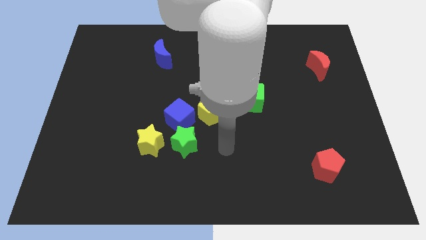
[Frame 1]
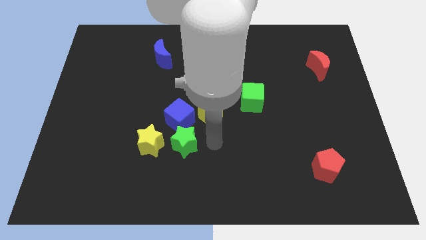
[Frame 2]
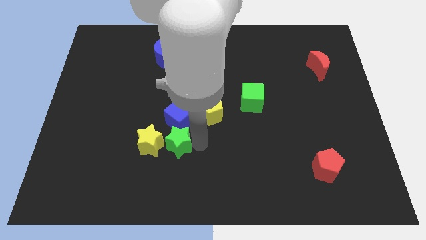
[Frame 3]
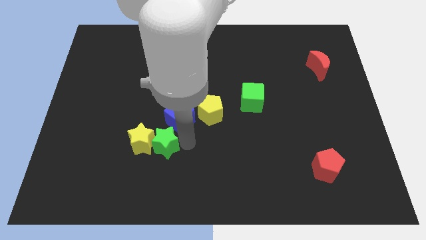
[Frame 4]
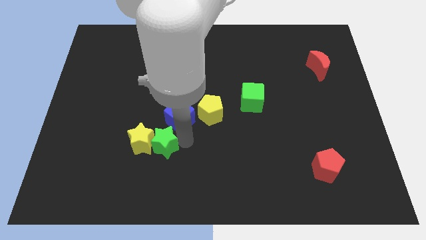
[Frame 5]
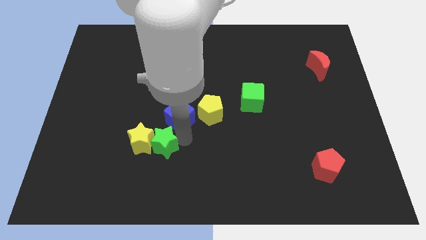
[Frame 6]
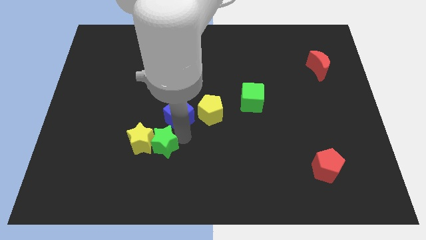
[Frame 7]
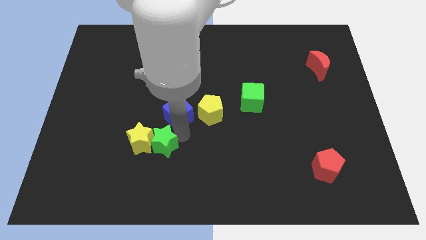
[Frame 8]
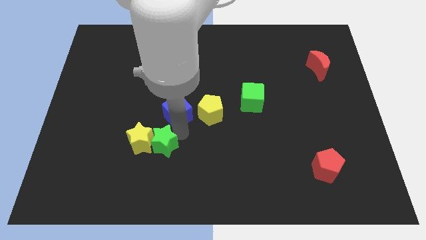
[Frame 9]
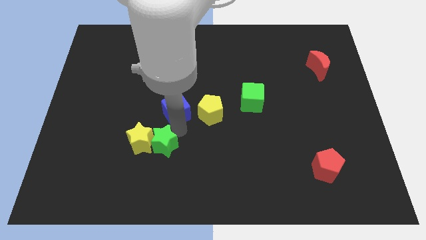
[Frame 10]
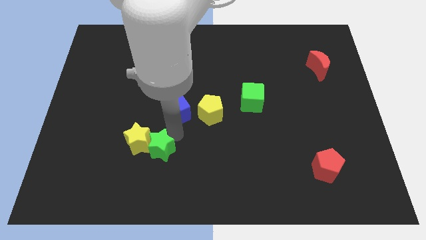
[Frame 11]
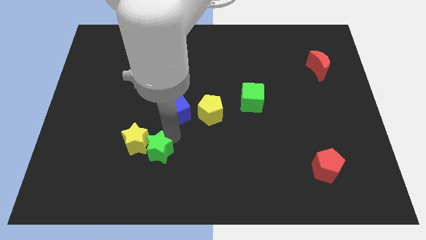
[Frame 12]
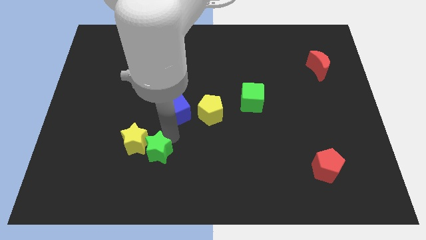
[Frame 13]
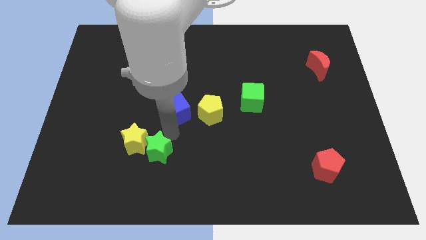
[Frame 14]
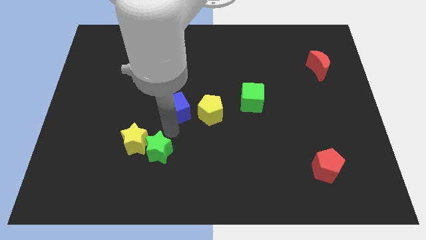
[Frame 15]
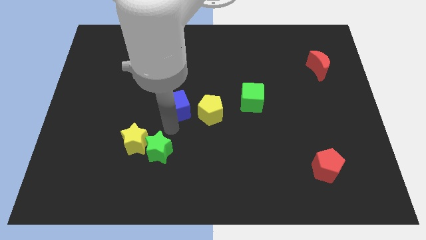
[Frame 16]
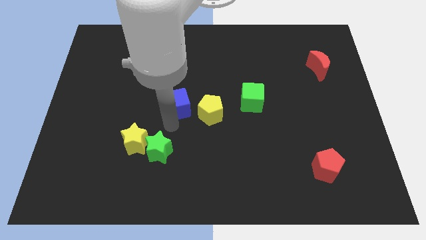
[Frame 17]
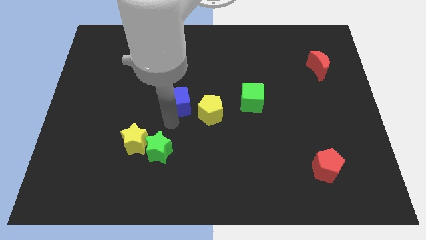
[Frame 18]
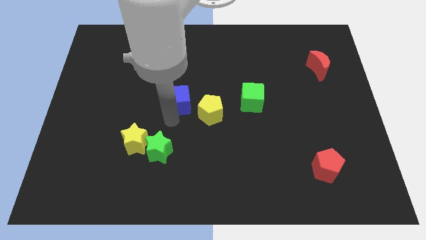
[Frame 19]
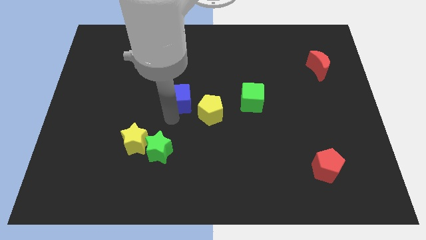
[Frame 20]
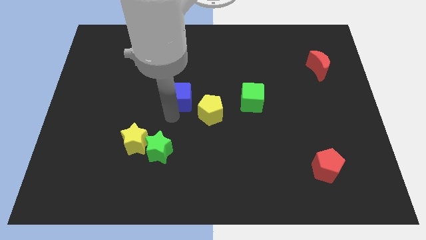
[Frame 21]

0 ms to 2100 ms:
move the blue cube away from the green star, yellow pentagon, and yellow star

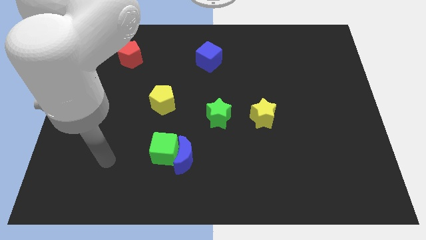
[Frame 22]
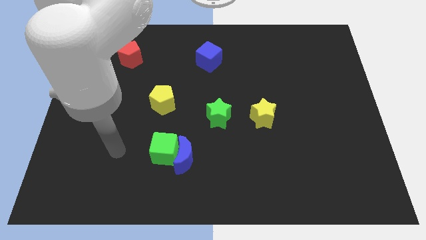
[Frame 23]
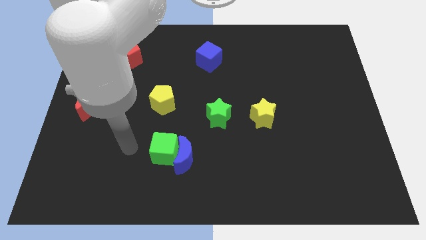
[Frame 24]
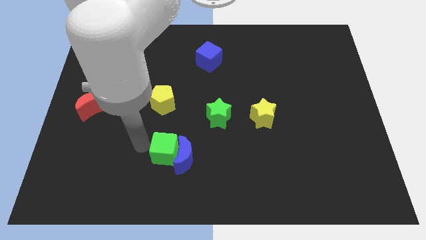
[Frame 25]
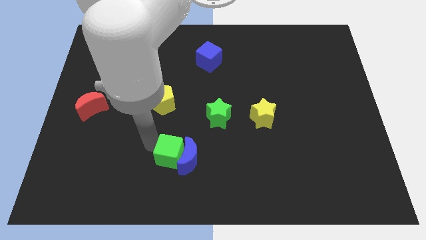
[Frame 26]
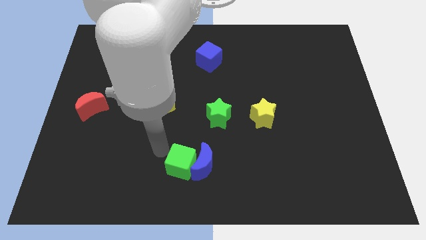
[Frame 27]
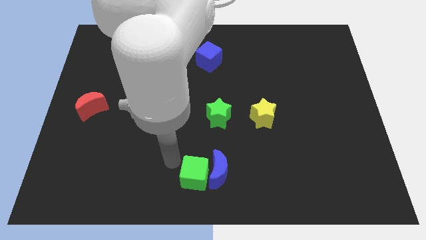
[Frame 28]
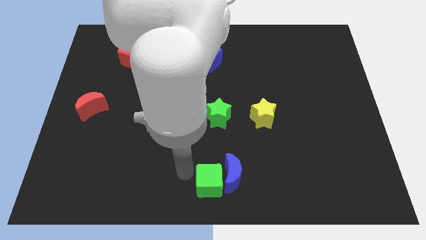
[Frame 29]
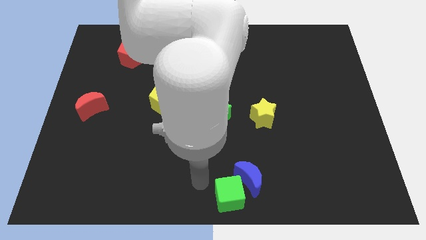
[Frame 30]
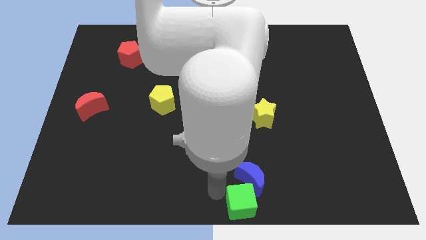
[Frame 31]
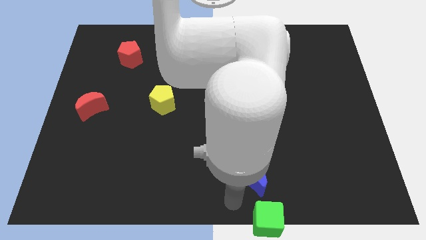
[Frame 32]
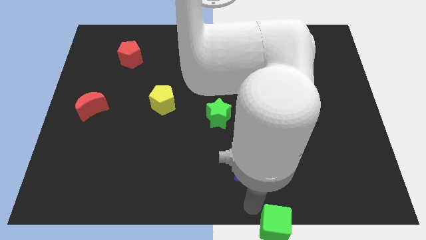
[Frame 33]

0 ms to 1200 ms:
move the blue moon away from the green cube

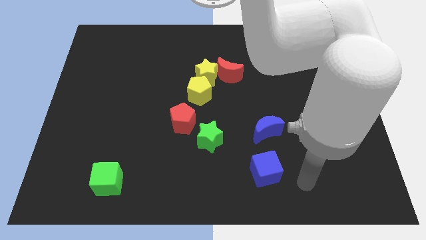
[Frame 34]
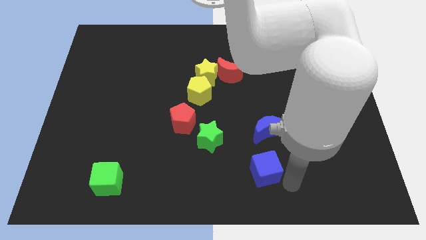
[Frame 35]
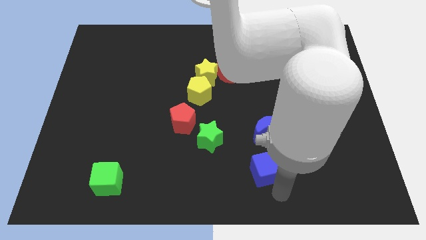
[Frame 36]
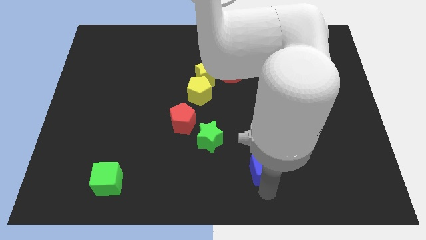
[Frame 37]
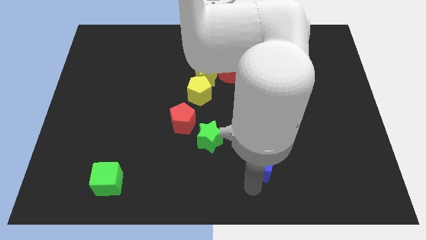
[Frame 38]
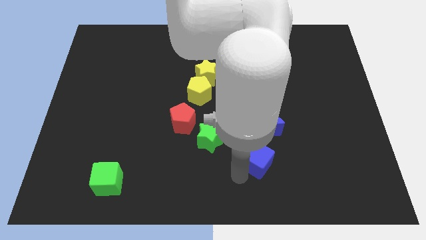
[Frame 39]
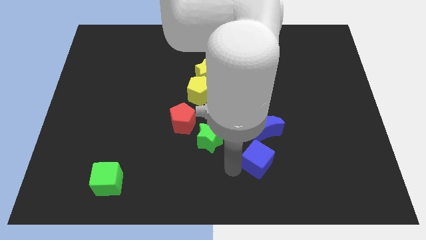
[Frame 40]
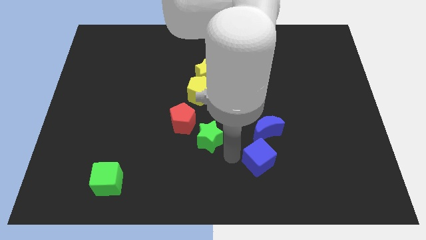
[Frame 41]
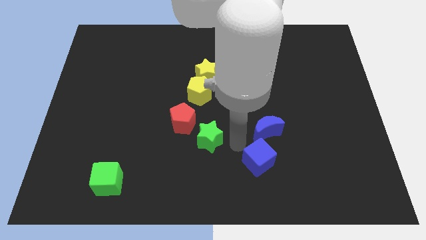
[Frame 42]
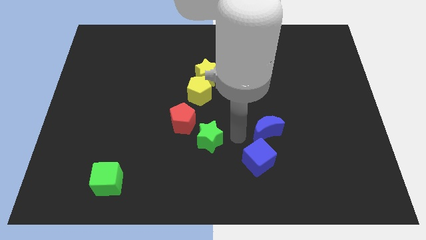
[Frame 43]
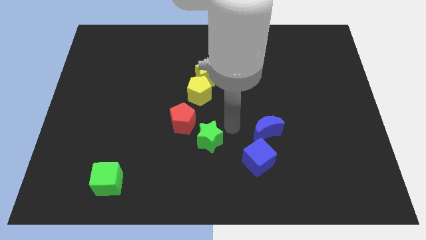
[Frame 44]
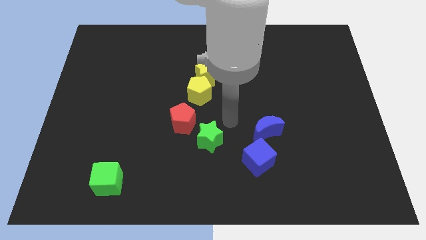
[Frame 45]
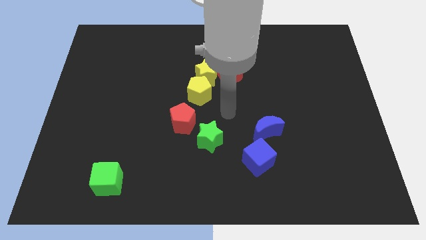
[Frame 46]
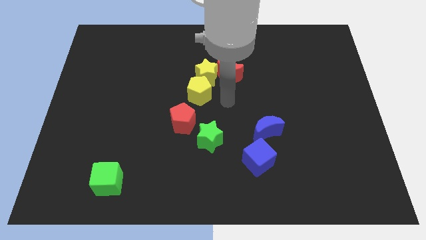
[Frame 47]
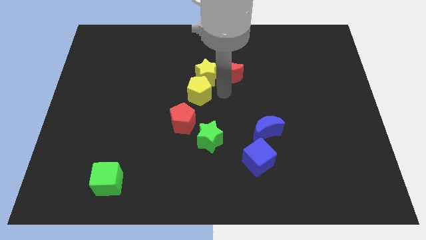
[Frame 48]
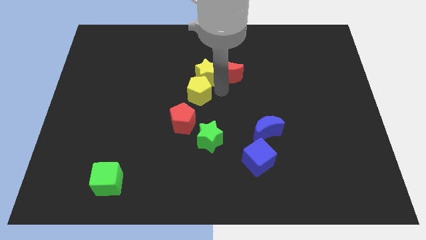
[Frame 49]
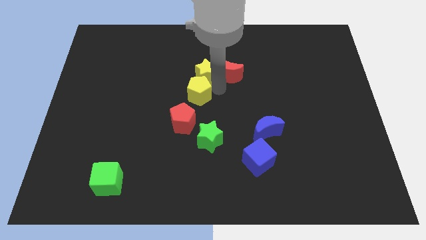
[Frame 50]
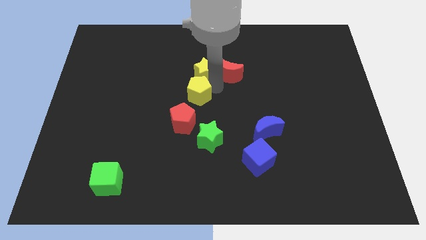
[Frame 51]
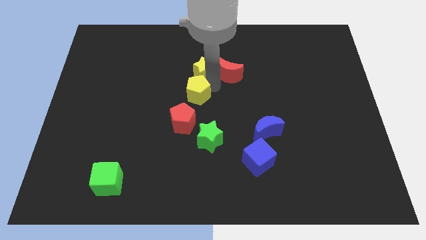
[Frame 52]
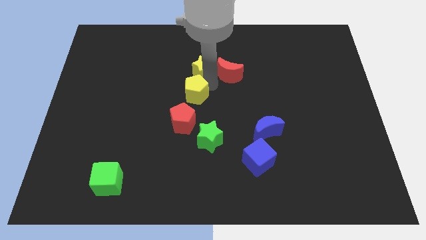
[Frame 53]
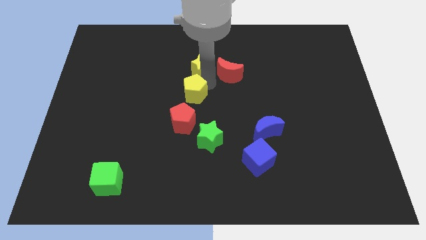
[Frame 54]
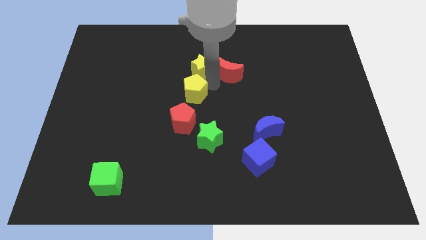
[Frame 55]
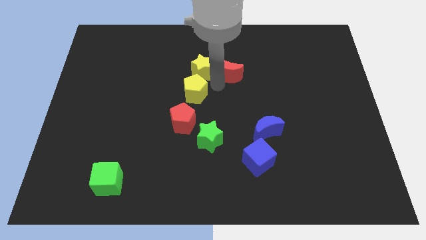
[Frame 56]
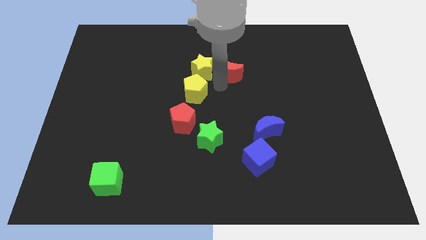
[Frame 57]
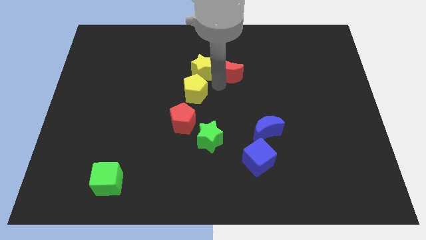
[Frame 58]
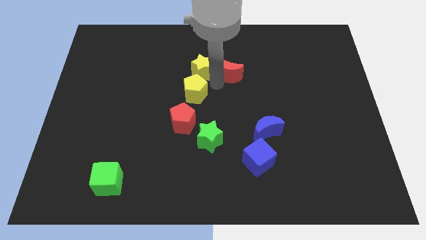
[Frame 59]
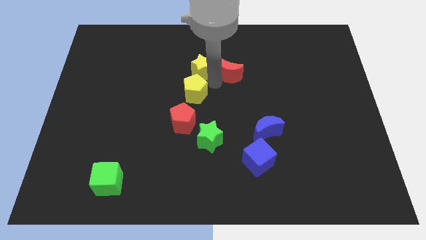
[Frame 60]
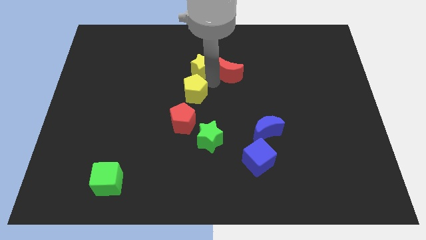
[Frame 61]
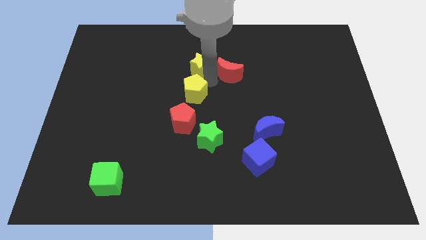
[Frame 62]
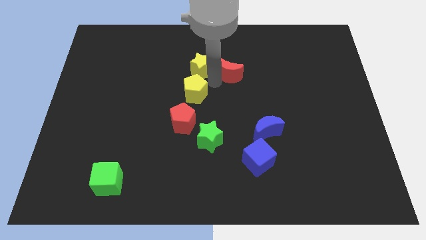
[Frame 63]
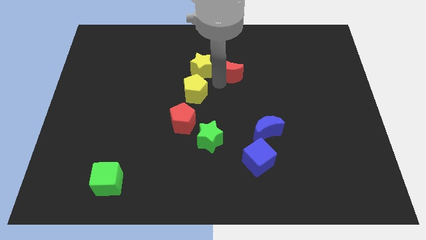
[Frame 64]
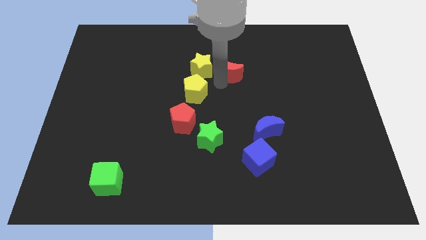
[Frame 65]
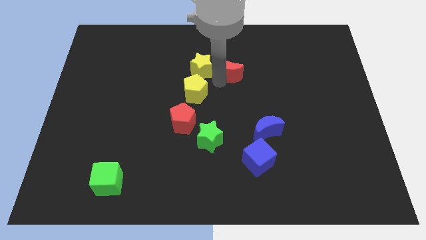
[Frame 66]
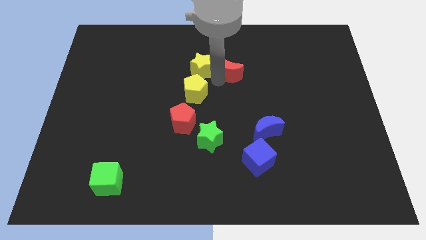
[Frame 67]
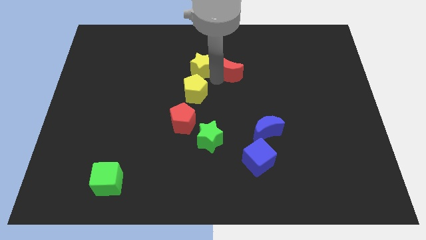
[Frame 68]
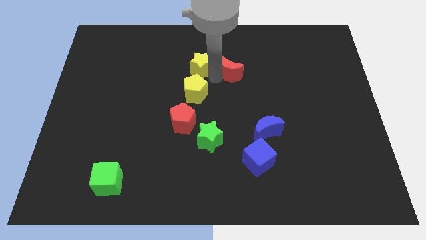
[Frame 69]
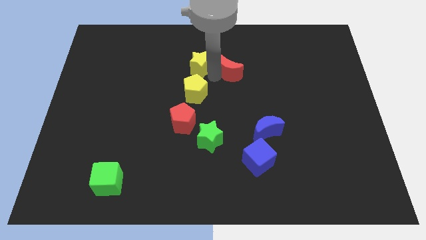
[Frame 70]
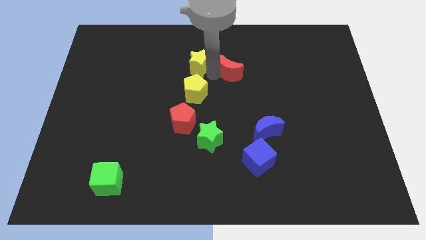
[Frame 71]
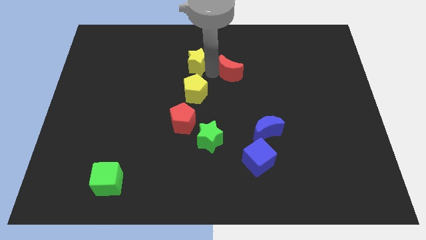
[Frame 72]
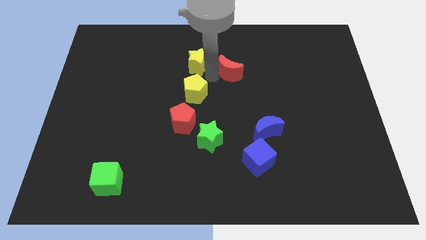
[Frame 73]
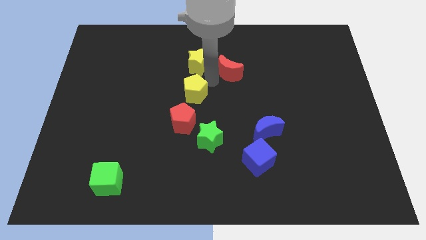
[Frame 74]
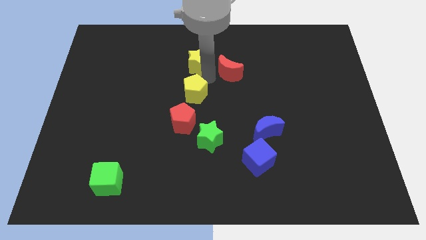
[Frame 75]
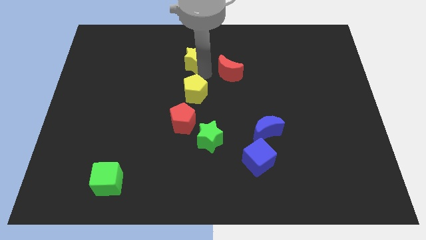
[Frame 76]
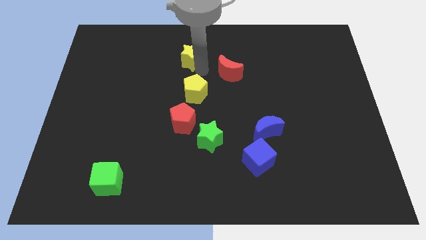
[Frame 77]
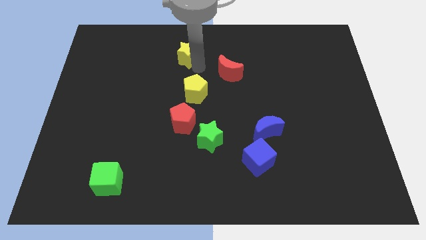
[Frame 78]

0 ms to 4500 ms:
separate the yellow star from the yellow pentagon and red moon

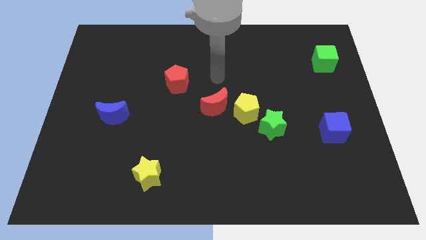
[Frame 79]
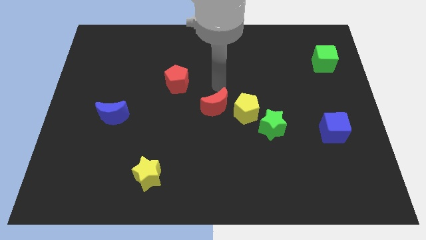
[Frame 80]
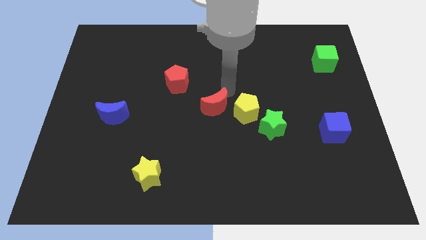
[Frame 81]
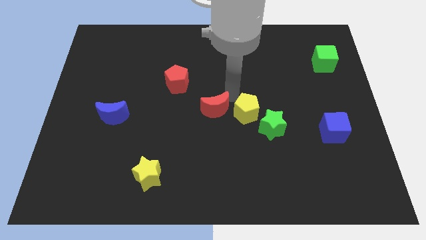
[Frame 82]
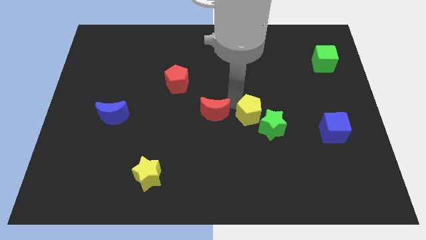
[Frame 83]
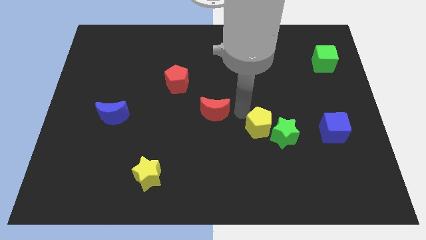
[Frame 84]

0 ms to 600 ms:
pull the red moon apart from the yellow pentagon

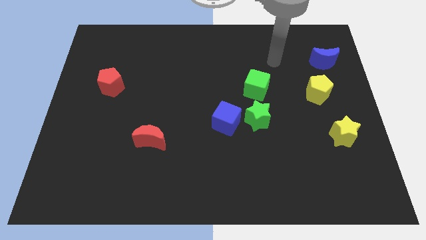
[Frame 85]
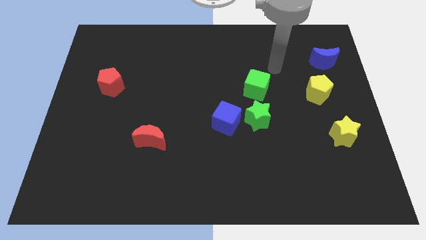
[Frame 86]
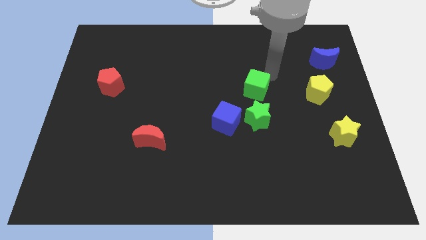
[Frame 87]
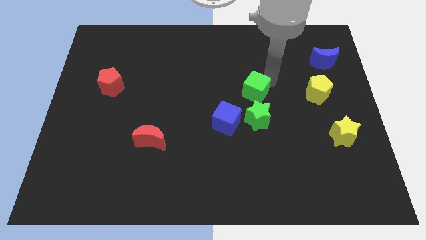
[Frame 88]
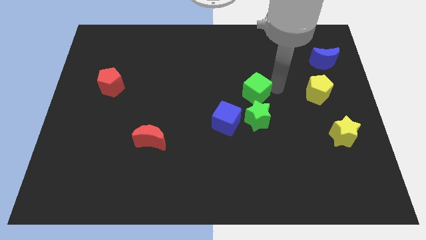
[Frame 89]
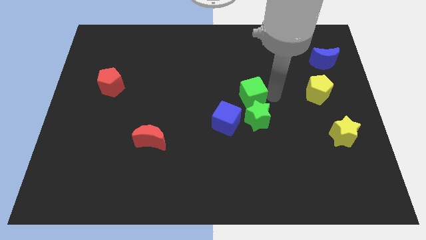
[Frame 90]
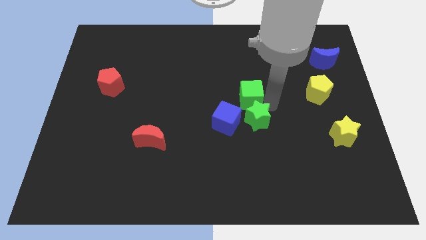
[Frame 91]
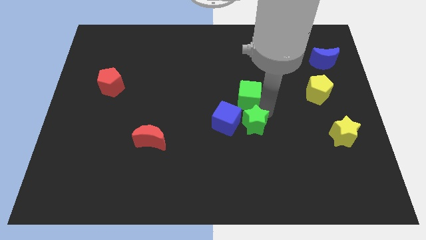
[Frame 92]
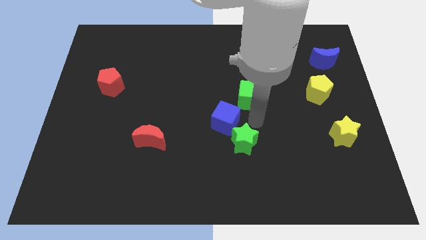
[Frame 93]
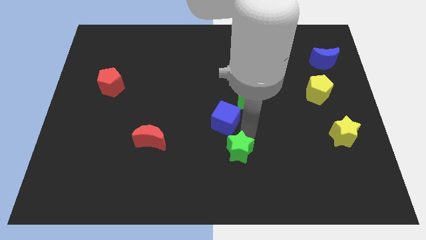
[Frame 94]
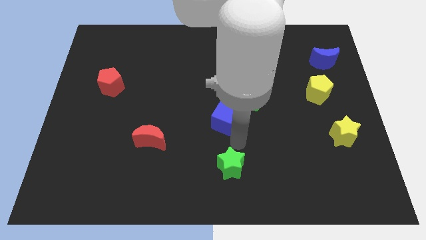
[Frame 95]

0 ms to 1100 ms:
pull the blue cube apart from the green star
